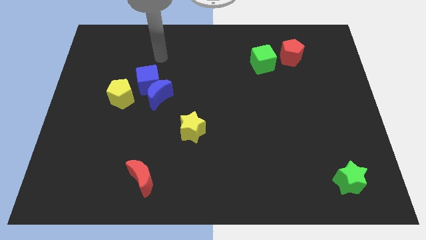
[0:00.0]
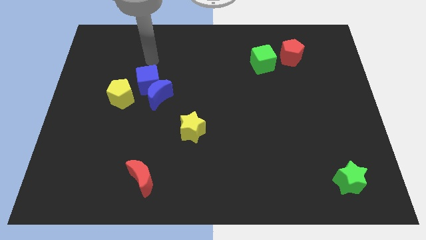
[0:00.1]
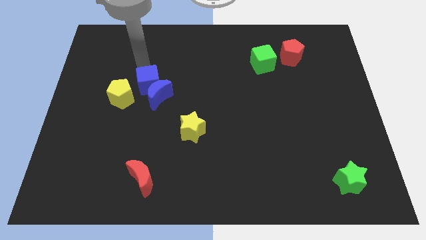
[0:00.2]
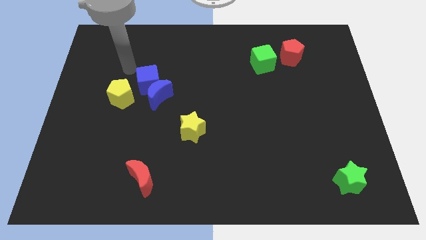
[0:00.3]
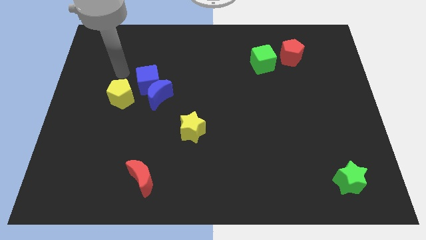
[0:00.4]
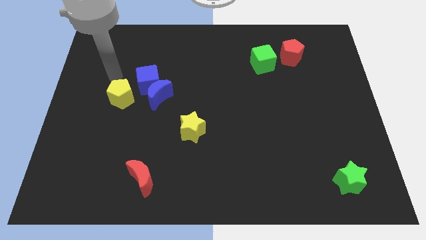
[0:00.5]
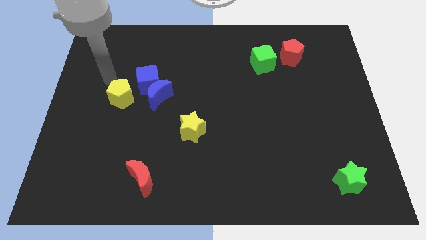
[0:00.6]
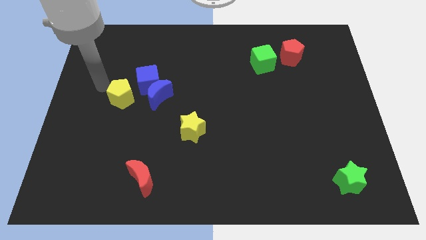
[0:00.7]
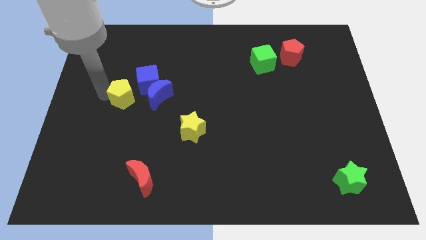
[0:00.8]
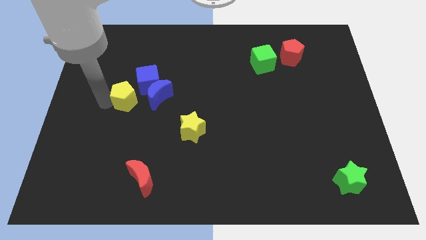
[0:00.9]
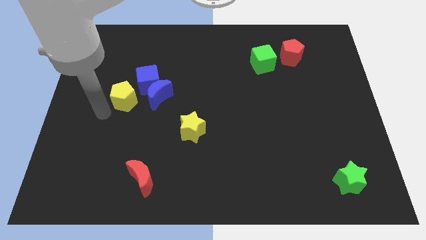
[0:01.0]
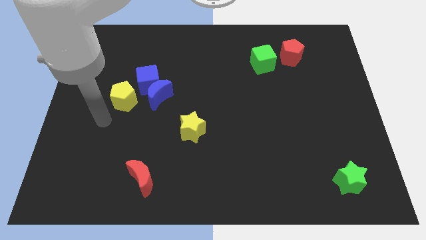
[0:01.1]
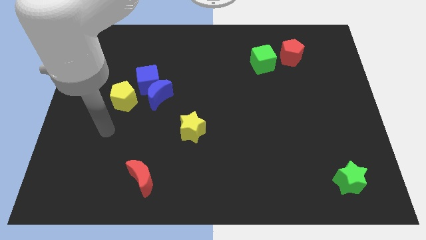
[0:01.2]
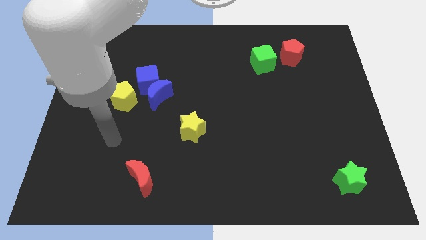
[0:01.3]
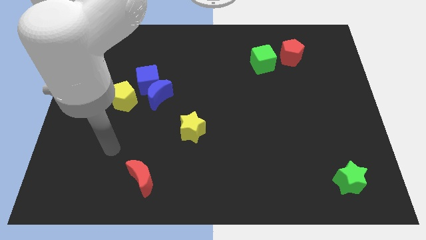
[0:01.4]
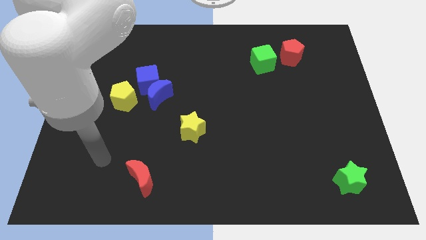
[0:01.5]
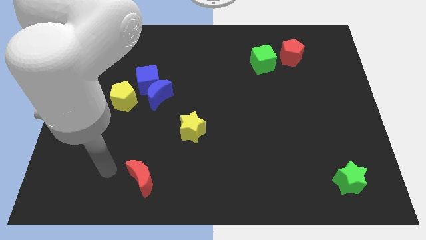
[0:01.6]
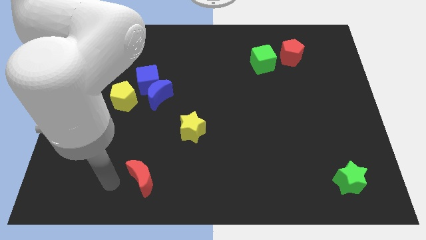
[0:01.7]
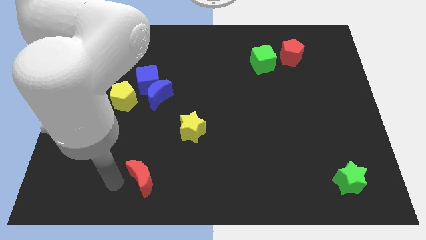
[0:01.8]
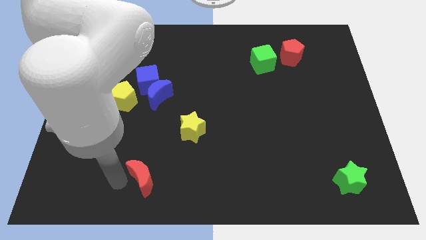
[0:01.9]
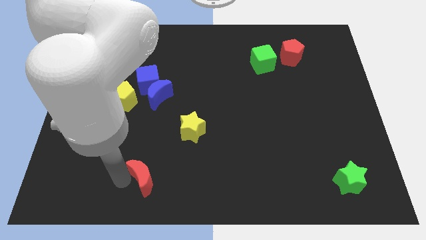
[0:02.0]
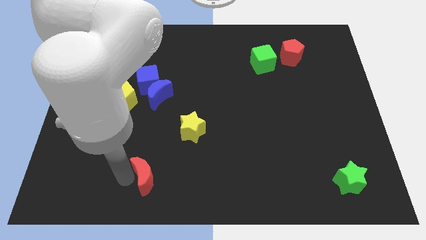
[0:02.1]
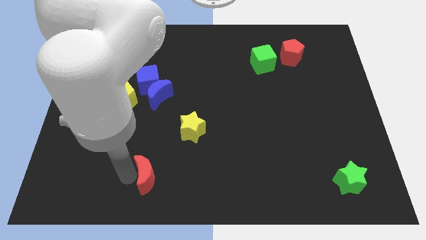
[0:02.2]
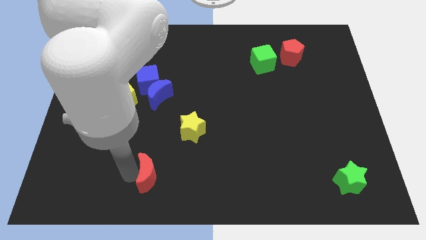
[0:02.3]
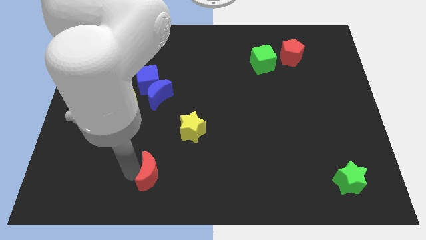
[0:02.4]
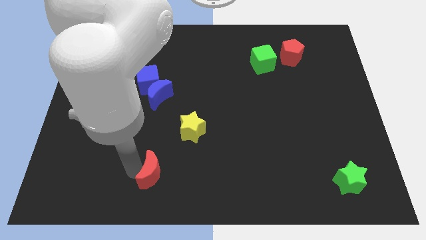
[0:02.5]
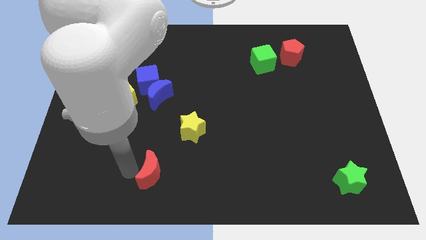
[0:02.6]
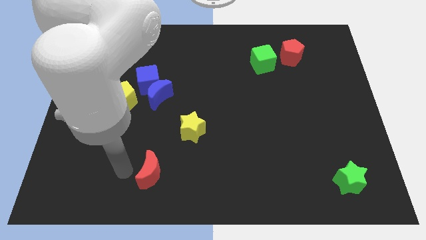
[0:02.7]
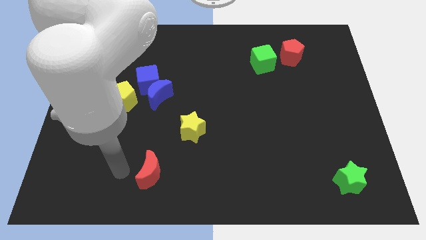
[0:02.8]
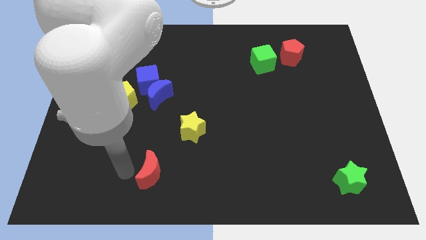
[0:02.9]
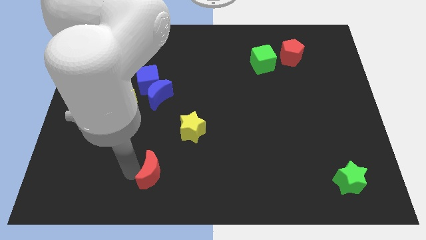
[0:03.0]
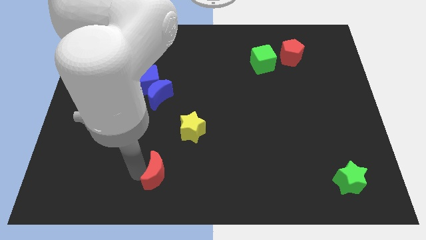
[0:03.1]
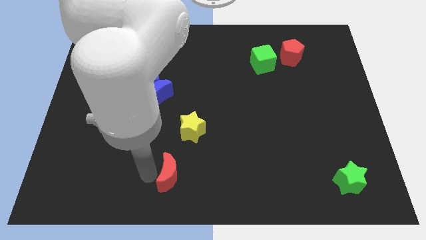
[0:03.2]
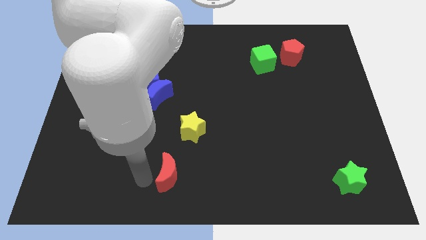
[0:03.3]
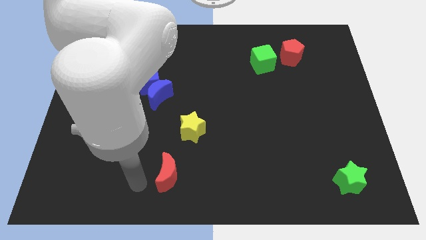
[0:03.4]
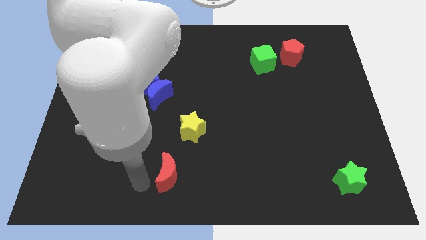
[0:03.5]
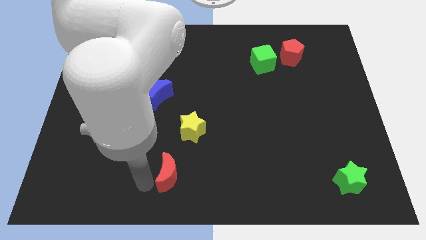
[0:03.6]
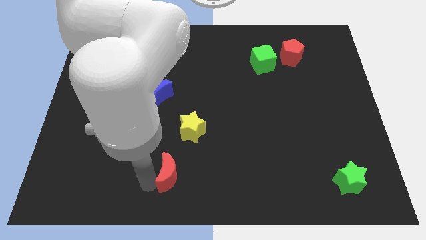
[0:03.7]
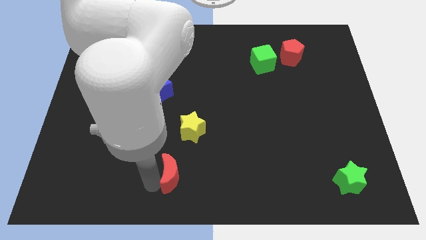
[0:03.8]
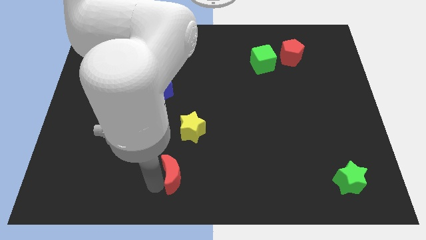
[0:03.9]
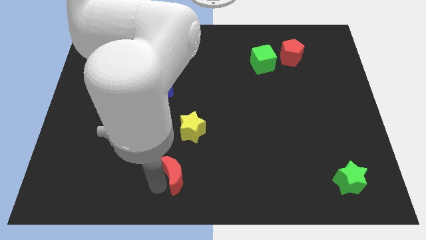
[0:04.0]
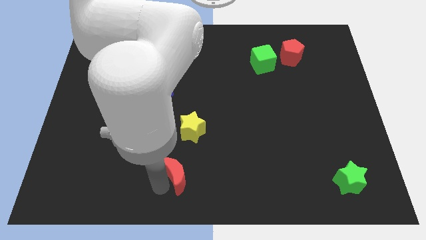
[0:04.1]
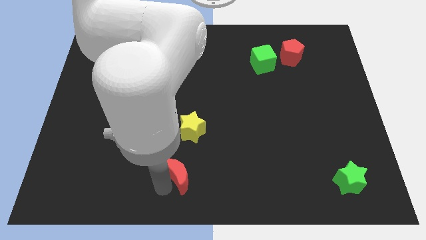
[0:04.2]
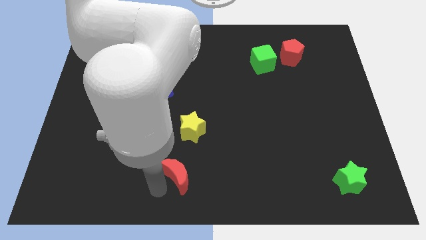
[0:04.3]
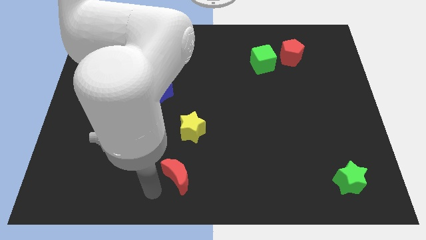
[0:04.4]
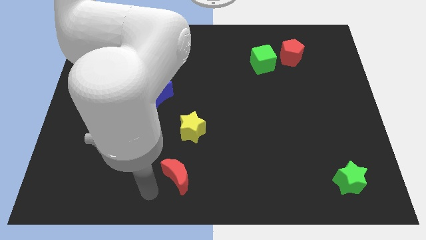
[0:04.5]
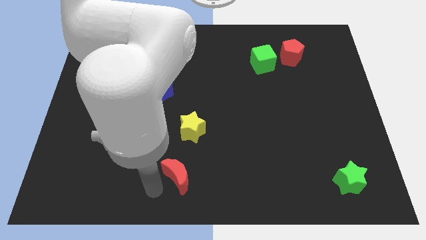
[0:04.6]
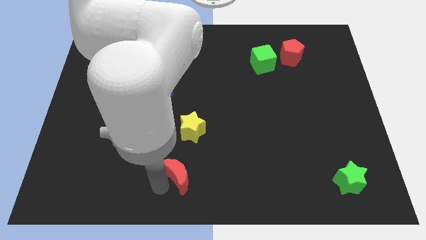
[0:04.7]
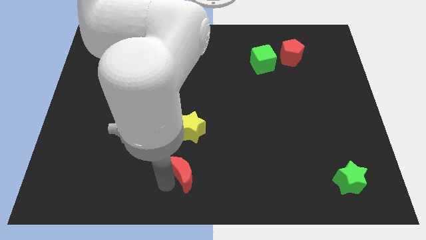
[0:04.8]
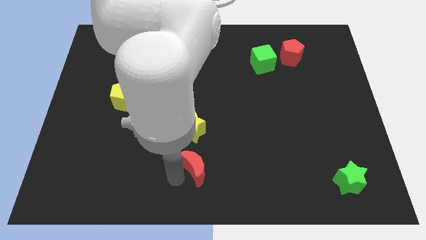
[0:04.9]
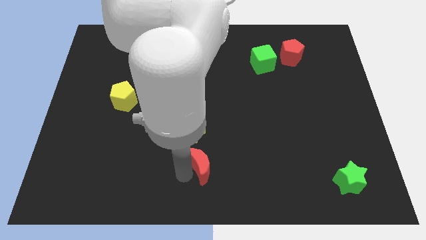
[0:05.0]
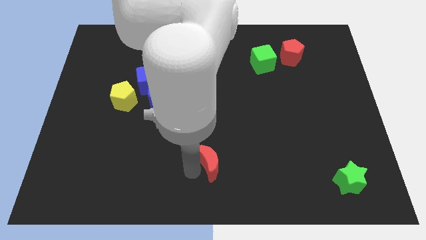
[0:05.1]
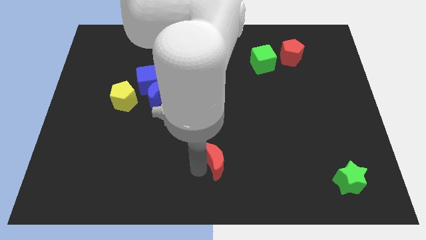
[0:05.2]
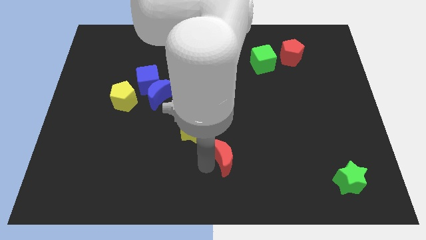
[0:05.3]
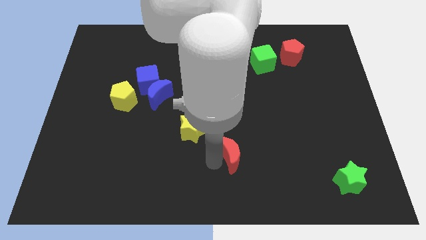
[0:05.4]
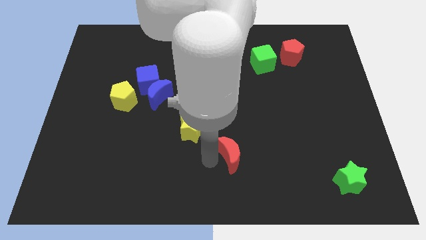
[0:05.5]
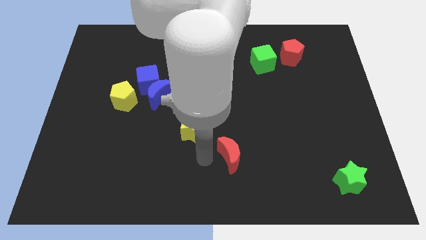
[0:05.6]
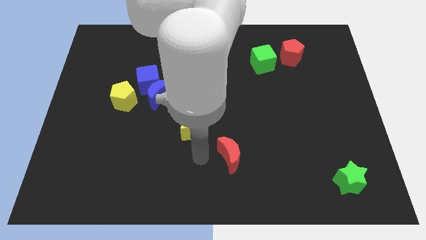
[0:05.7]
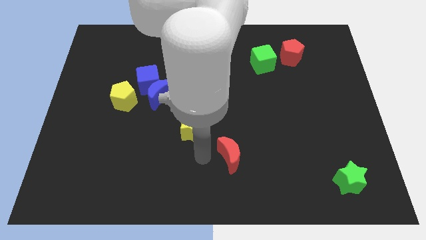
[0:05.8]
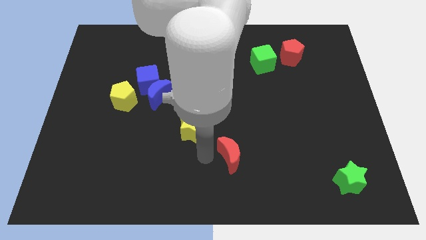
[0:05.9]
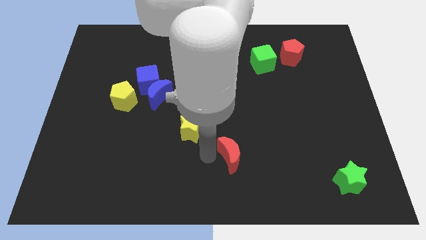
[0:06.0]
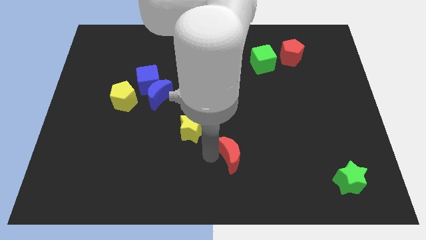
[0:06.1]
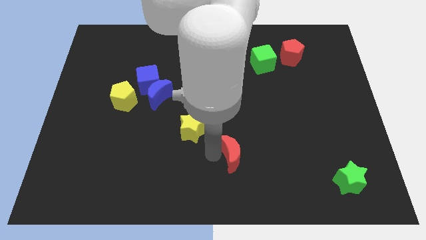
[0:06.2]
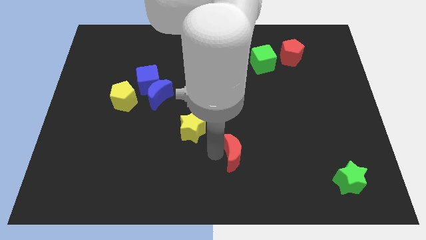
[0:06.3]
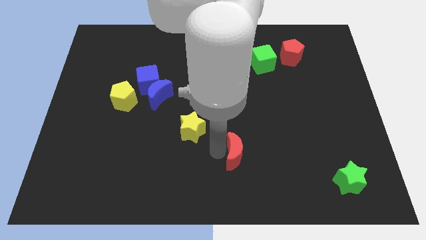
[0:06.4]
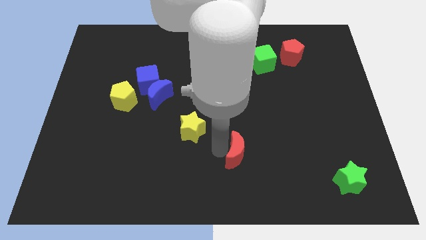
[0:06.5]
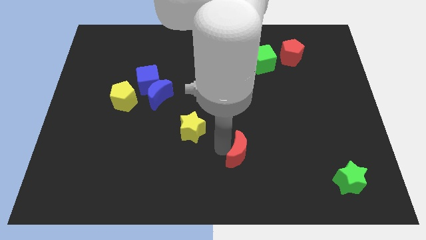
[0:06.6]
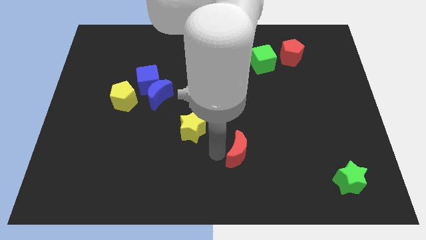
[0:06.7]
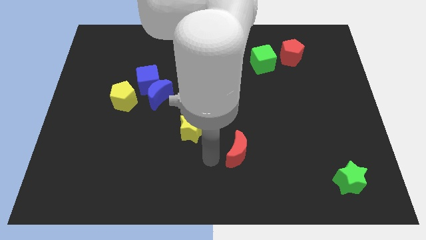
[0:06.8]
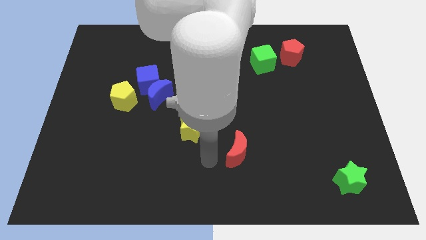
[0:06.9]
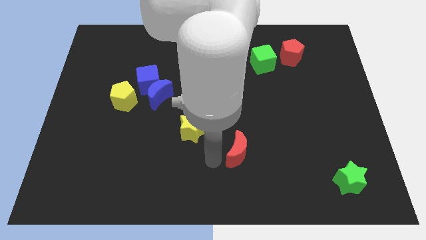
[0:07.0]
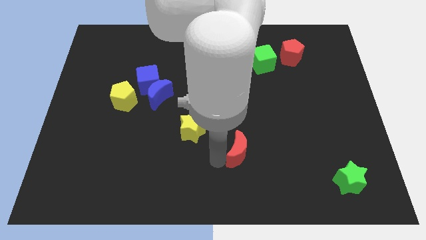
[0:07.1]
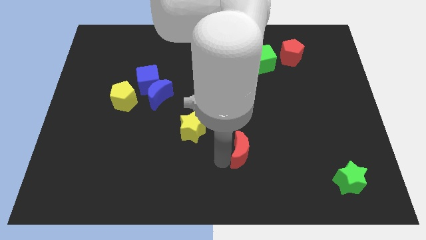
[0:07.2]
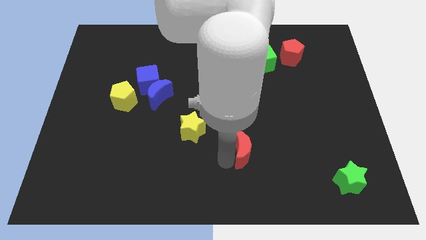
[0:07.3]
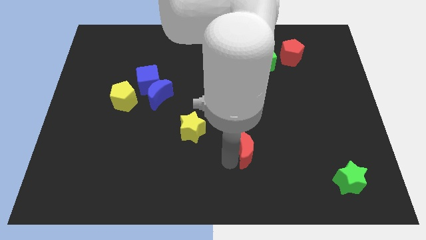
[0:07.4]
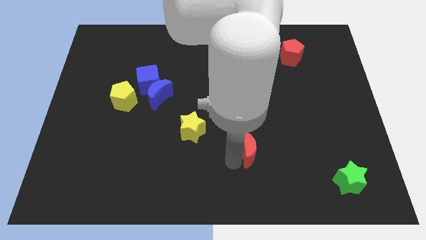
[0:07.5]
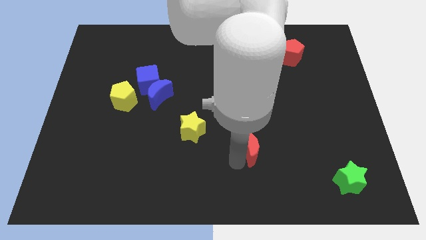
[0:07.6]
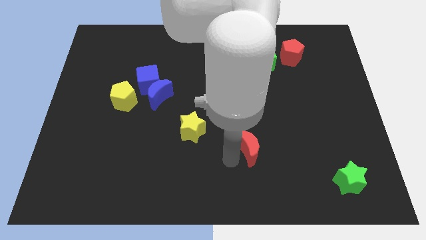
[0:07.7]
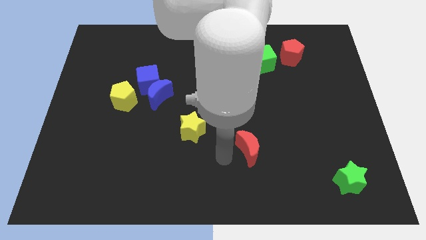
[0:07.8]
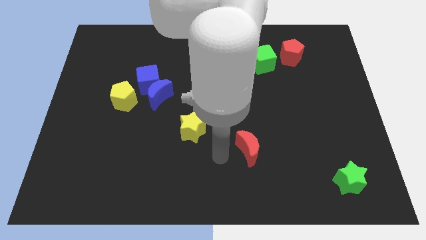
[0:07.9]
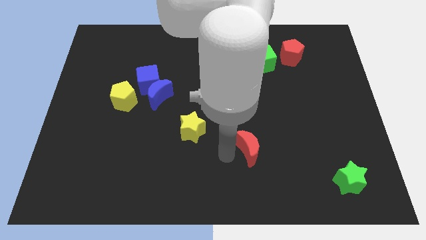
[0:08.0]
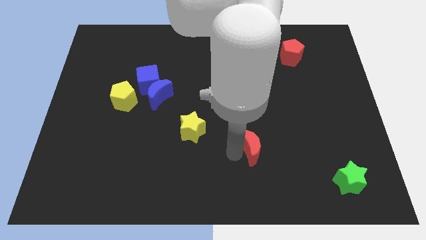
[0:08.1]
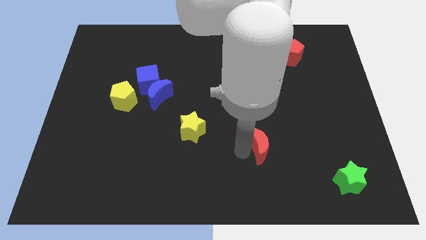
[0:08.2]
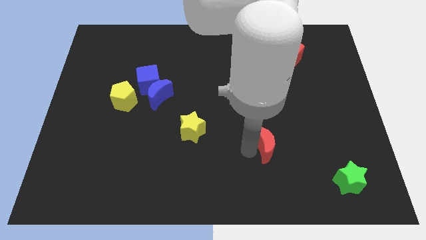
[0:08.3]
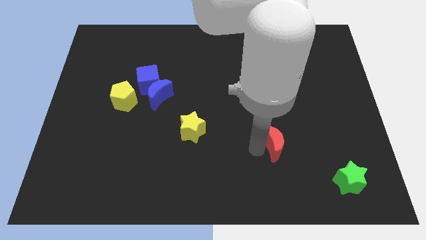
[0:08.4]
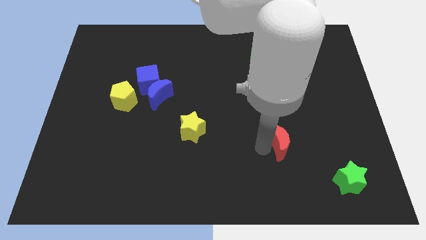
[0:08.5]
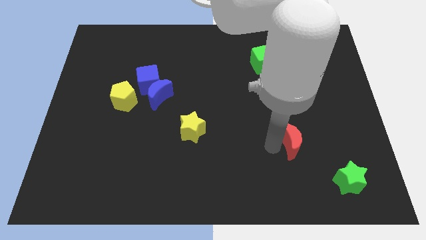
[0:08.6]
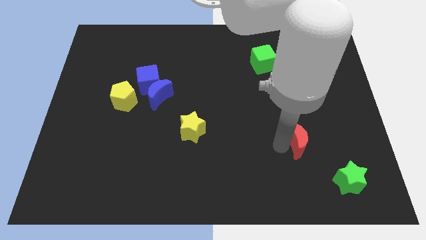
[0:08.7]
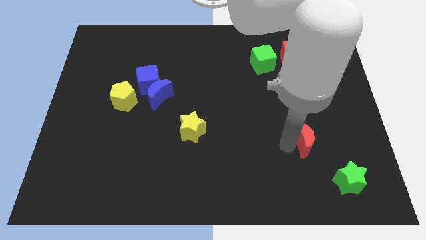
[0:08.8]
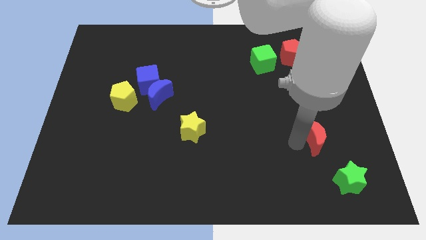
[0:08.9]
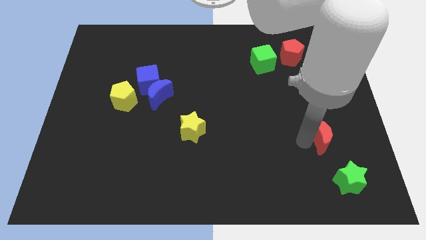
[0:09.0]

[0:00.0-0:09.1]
put the red moon to the top of the green star
